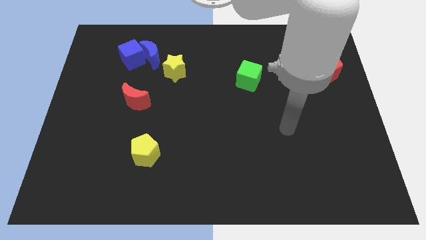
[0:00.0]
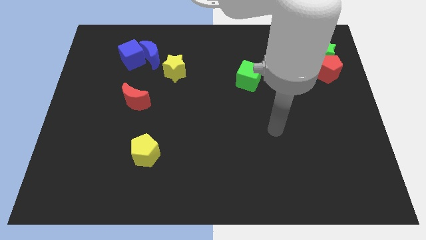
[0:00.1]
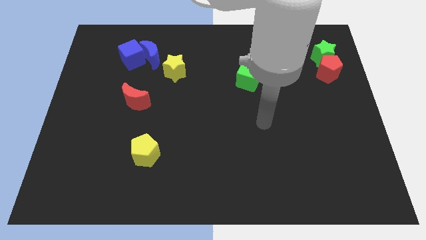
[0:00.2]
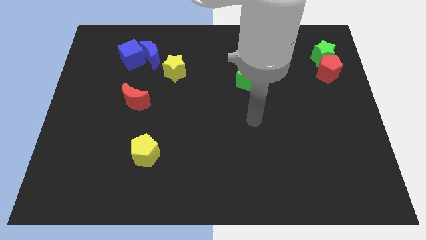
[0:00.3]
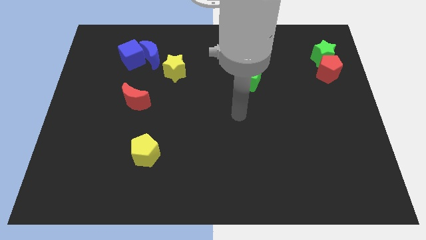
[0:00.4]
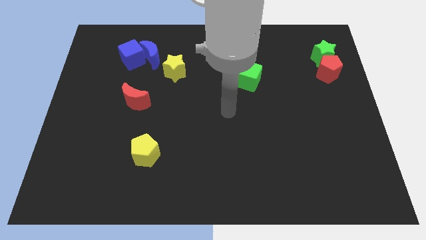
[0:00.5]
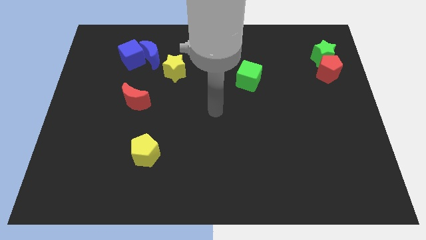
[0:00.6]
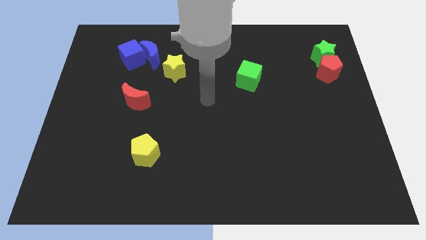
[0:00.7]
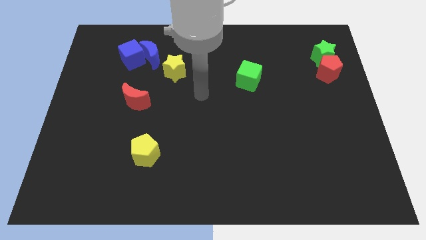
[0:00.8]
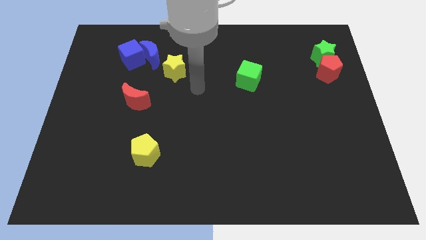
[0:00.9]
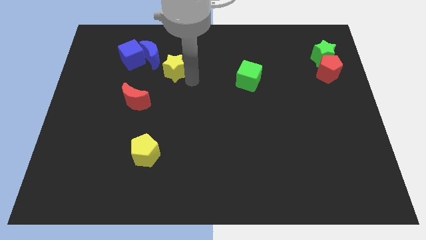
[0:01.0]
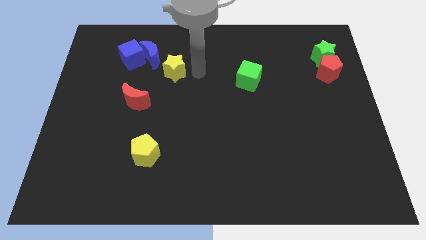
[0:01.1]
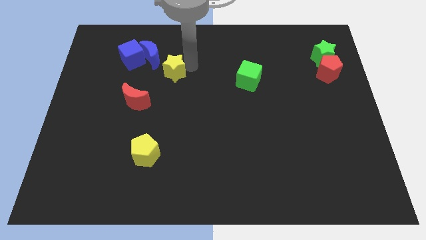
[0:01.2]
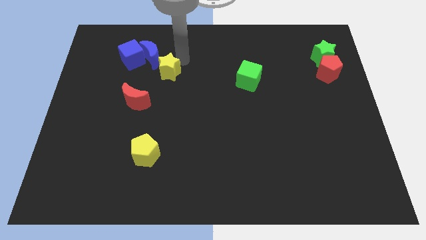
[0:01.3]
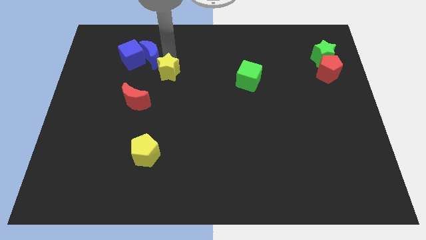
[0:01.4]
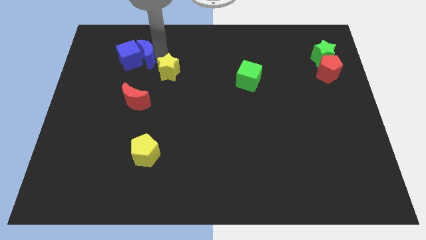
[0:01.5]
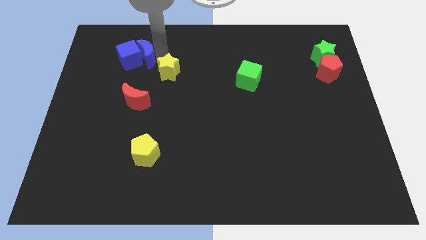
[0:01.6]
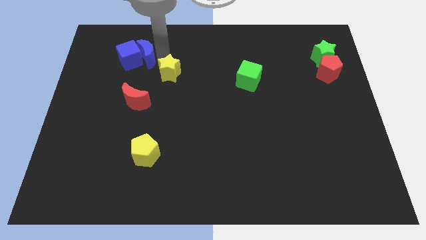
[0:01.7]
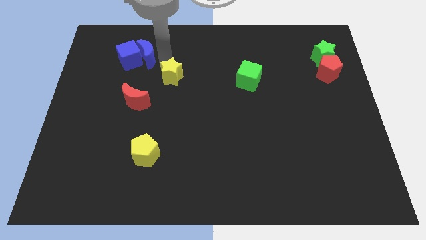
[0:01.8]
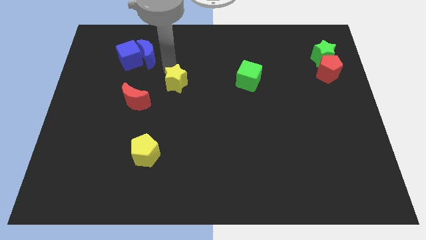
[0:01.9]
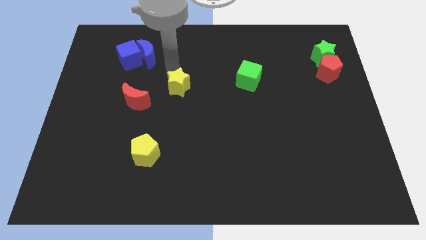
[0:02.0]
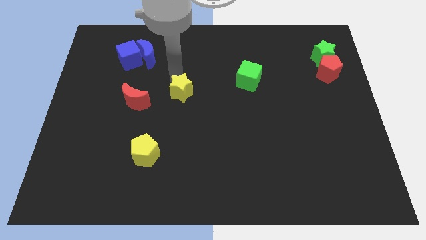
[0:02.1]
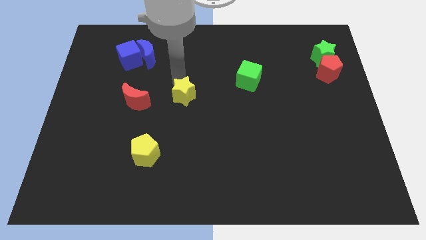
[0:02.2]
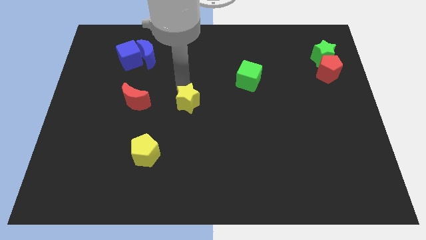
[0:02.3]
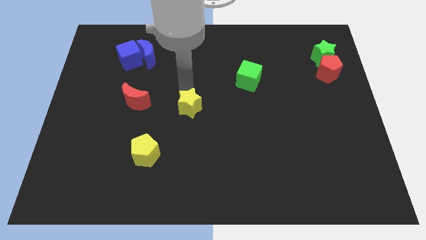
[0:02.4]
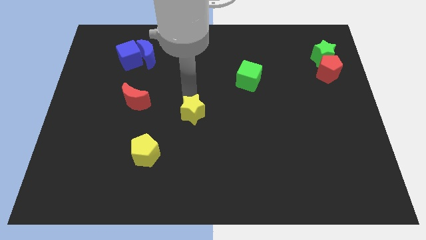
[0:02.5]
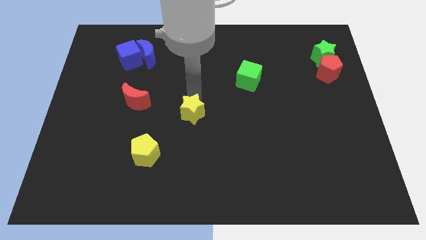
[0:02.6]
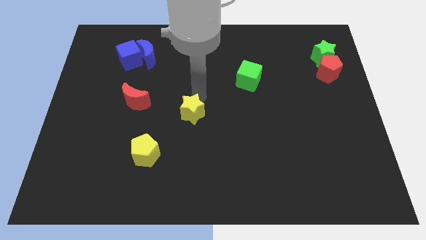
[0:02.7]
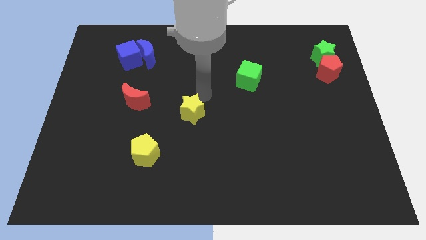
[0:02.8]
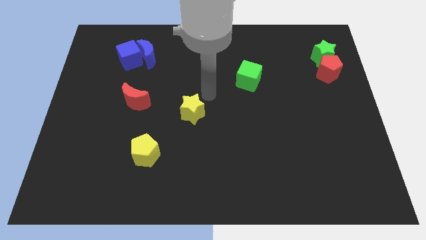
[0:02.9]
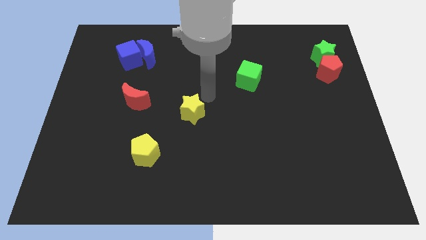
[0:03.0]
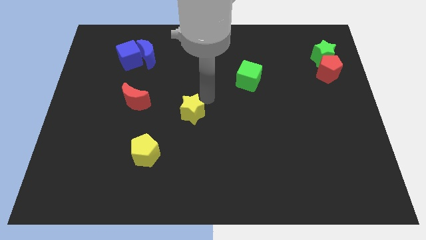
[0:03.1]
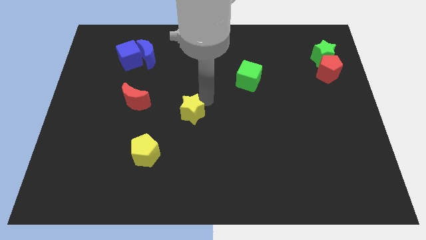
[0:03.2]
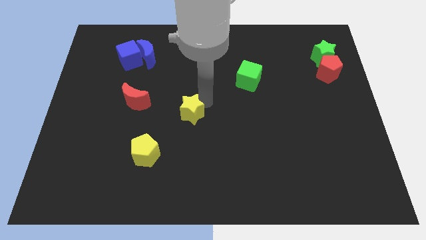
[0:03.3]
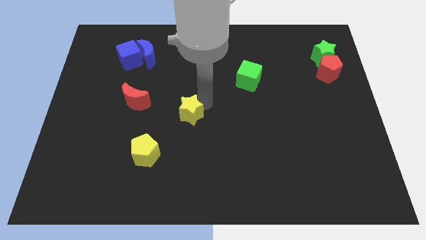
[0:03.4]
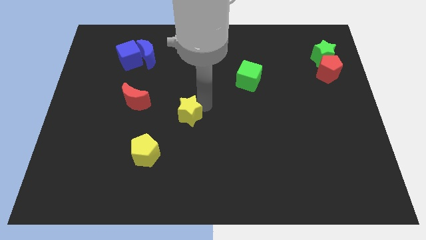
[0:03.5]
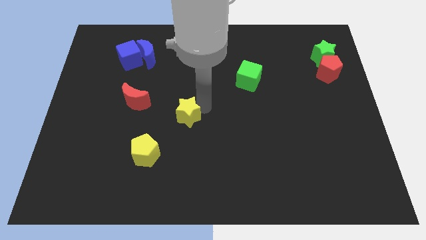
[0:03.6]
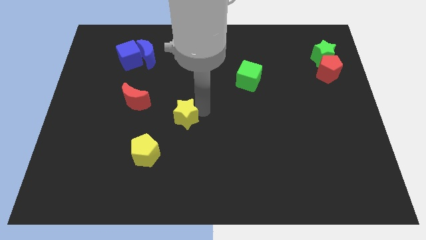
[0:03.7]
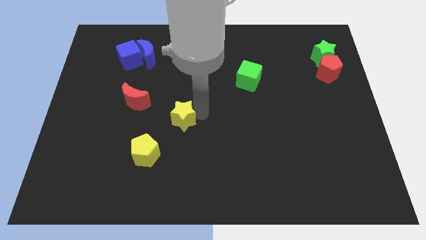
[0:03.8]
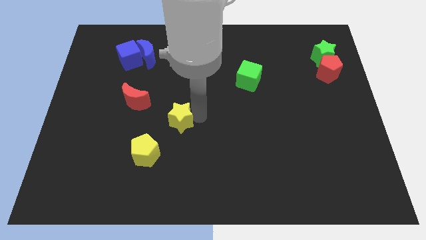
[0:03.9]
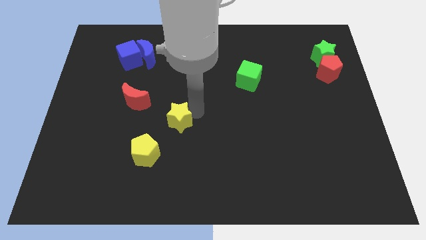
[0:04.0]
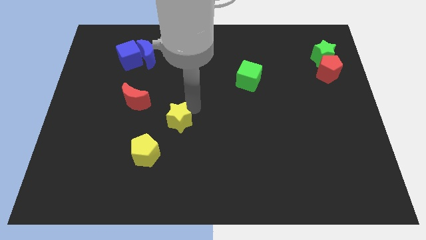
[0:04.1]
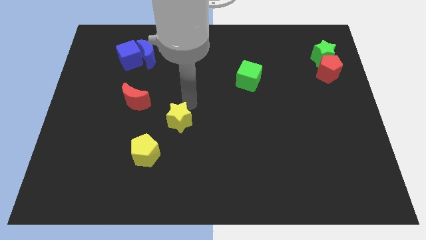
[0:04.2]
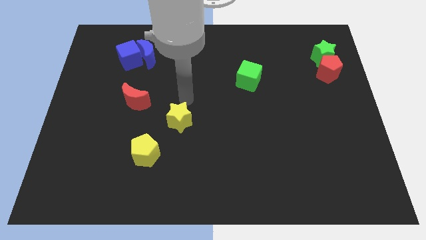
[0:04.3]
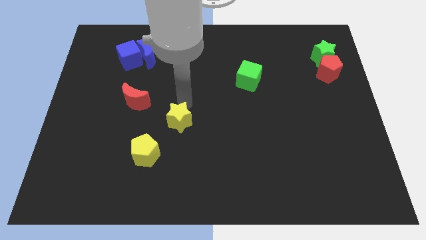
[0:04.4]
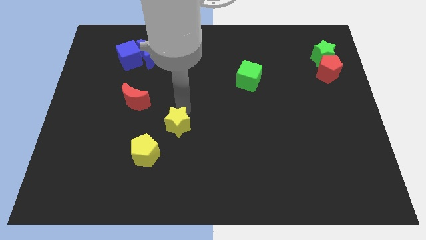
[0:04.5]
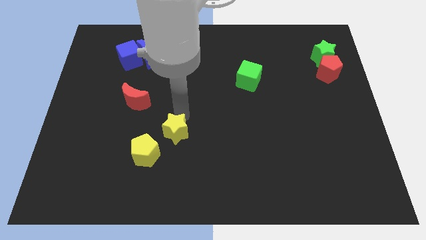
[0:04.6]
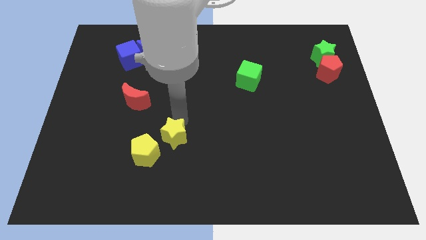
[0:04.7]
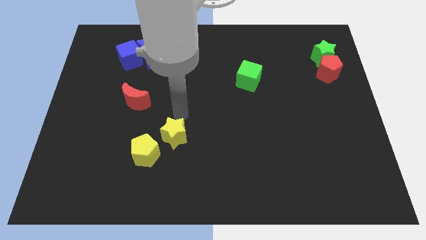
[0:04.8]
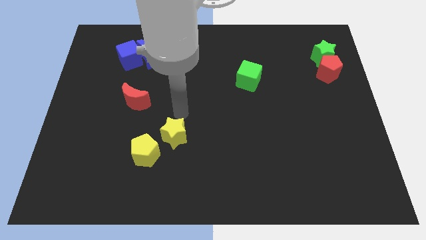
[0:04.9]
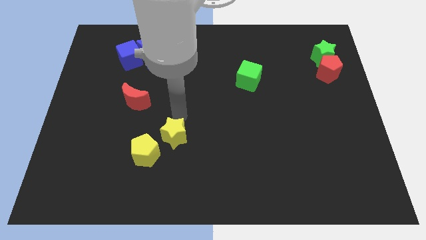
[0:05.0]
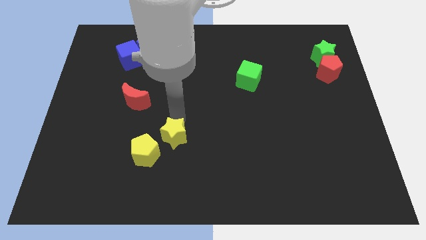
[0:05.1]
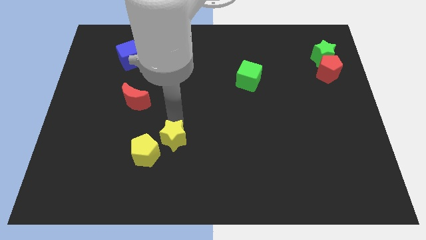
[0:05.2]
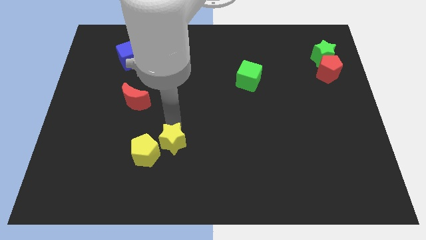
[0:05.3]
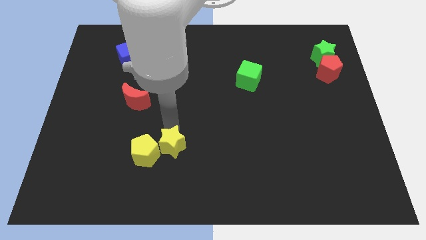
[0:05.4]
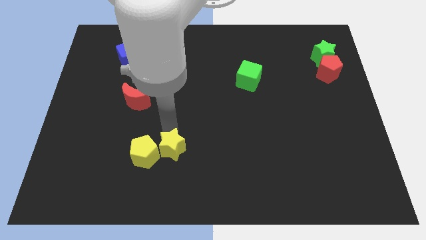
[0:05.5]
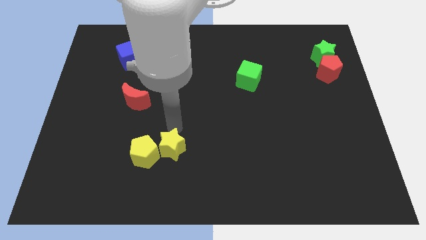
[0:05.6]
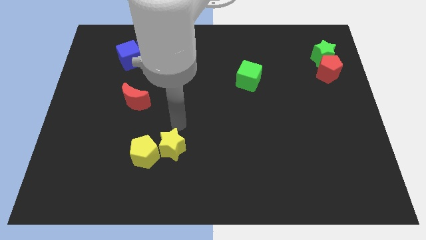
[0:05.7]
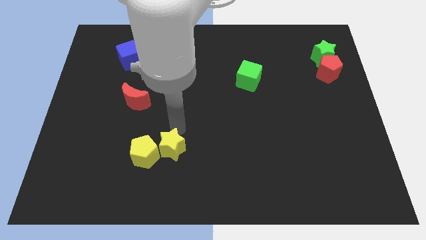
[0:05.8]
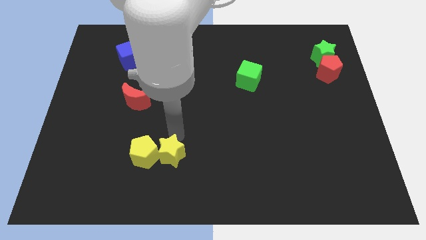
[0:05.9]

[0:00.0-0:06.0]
move the yellow star diagonally down and to the right of the yellow pentagon

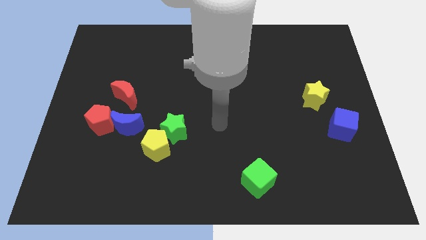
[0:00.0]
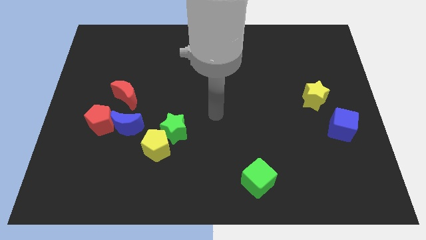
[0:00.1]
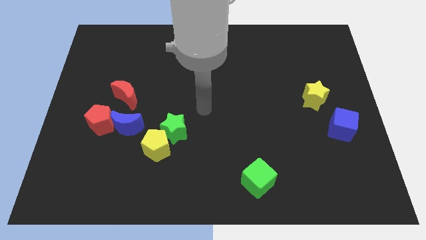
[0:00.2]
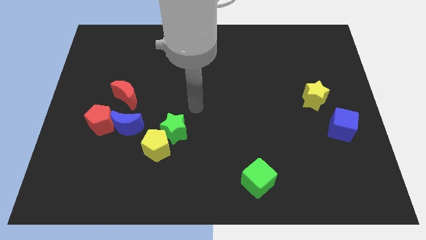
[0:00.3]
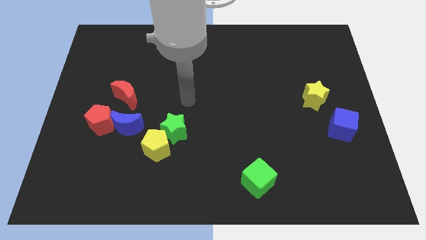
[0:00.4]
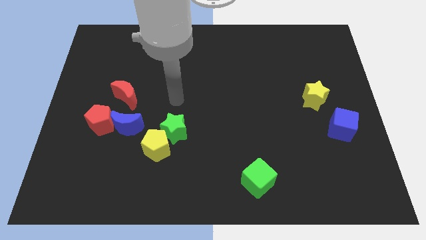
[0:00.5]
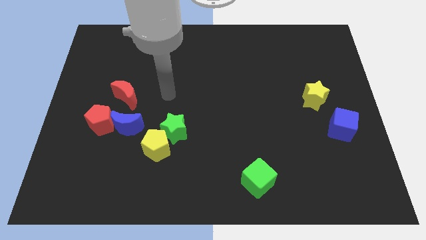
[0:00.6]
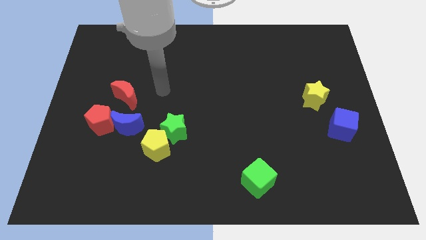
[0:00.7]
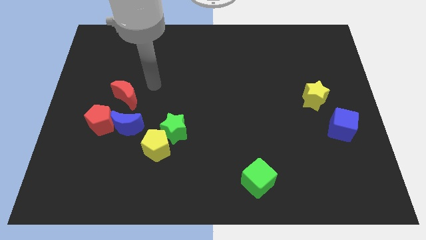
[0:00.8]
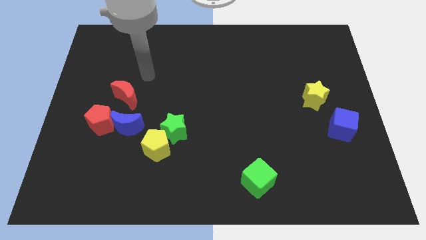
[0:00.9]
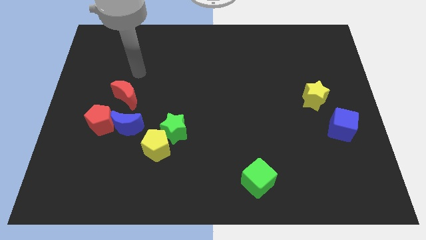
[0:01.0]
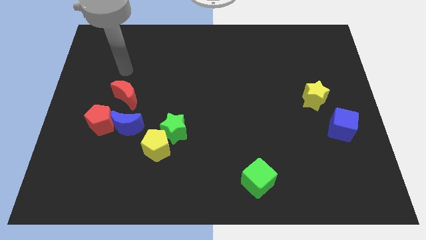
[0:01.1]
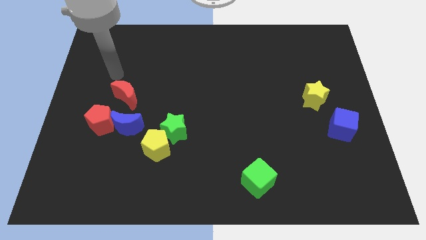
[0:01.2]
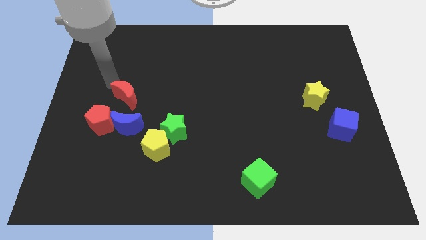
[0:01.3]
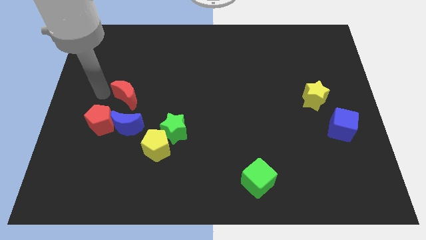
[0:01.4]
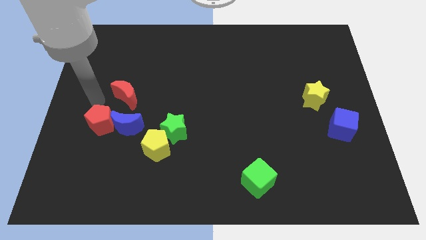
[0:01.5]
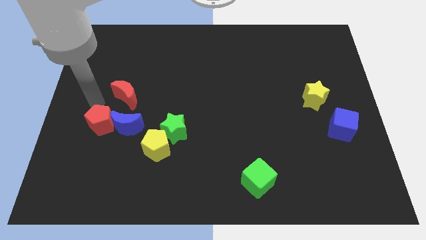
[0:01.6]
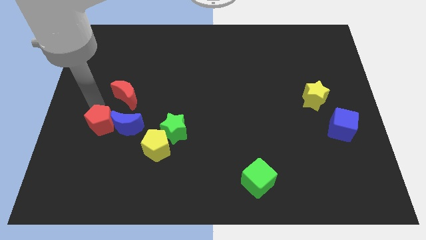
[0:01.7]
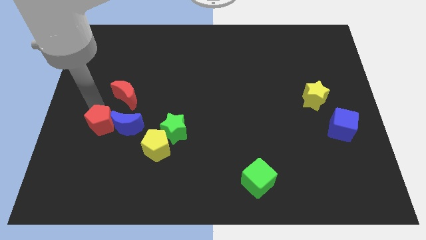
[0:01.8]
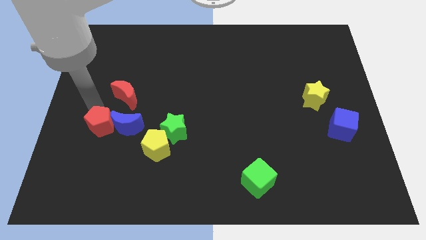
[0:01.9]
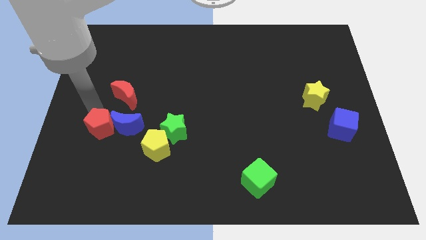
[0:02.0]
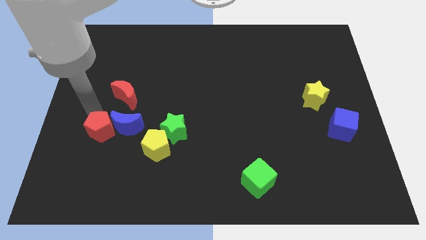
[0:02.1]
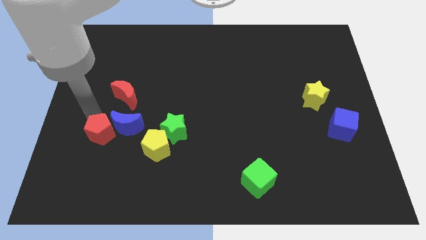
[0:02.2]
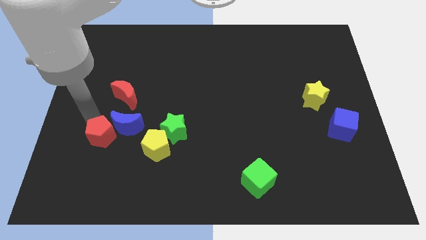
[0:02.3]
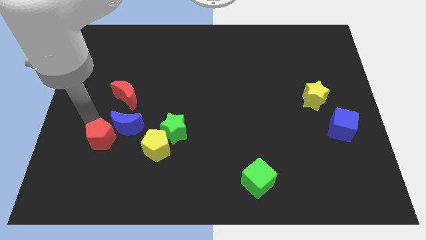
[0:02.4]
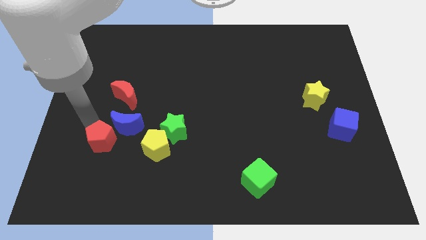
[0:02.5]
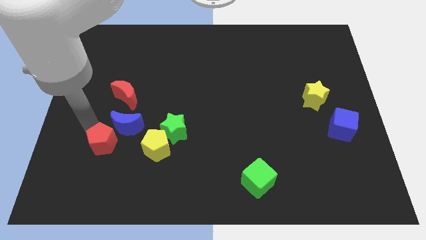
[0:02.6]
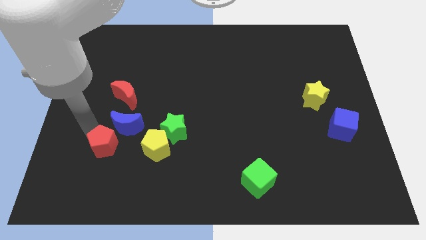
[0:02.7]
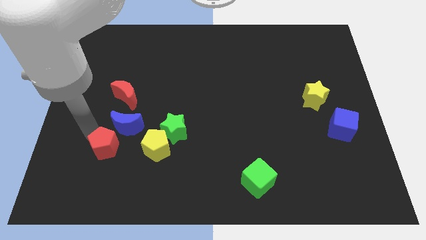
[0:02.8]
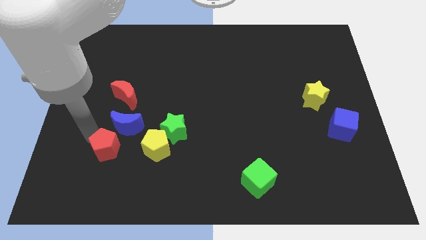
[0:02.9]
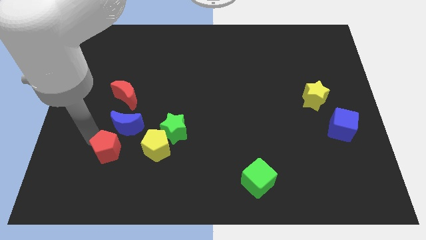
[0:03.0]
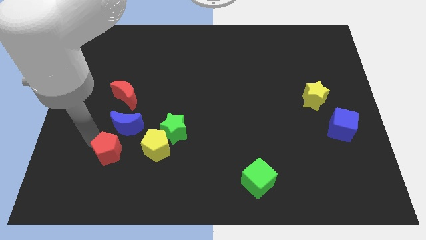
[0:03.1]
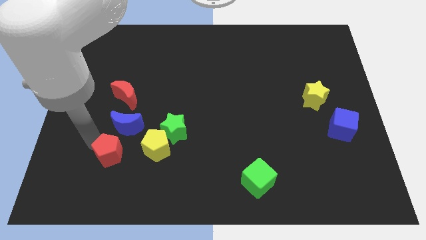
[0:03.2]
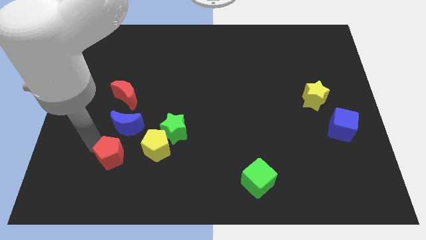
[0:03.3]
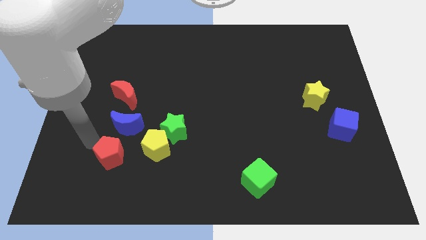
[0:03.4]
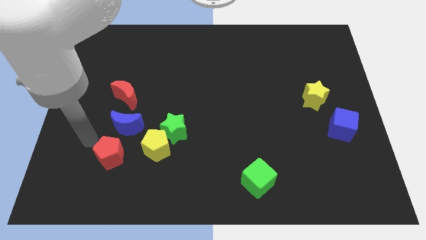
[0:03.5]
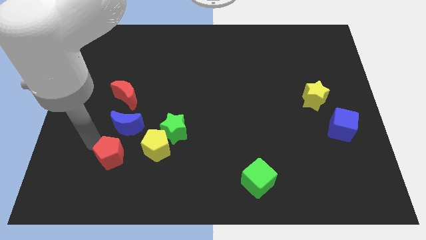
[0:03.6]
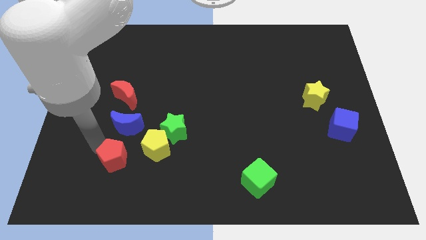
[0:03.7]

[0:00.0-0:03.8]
put the red pentagon diagonally down and to the left of the yellow pentagon
